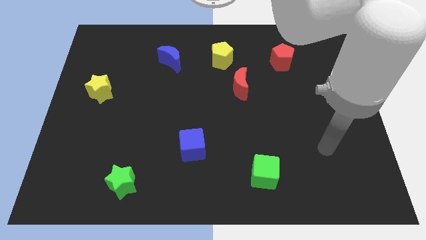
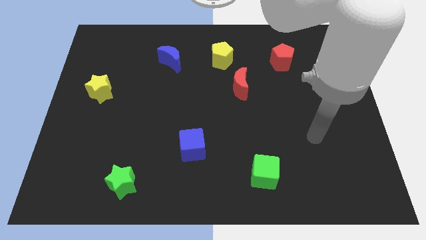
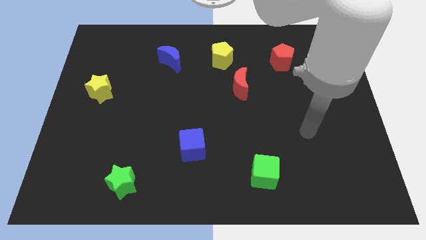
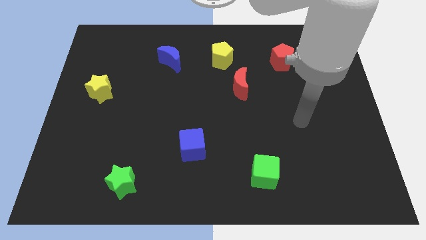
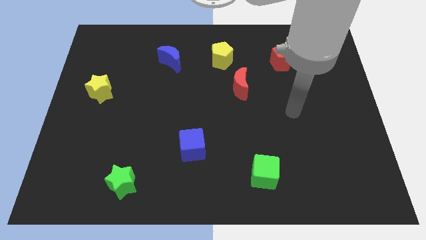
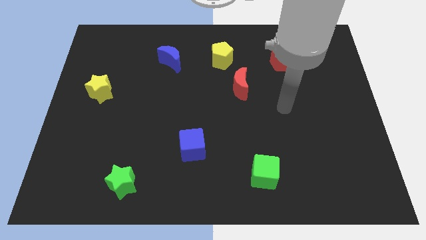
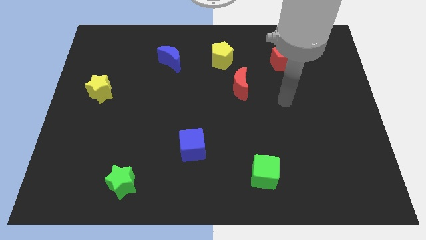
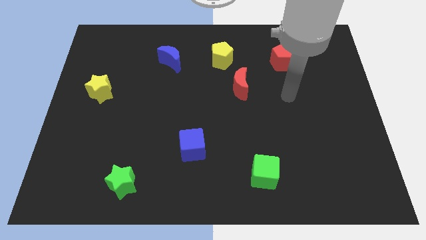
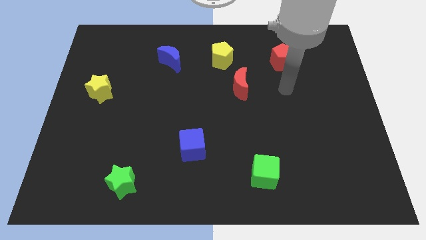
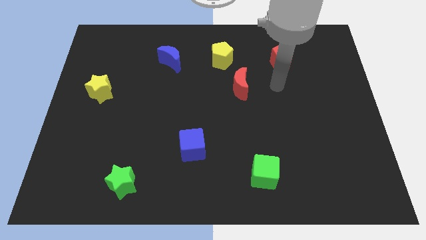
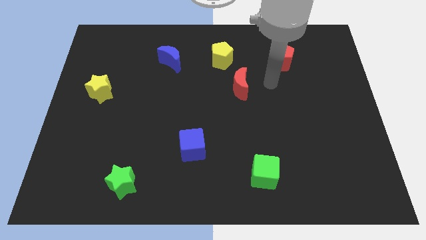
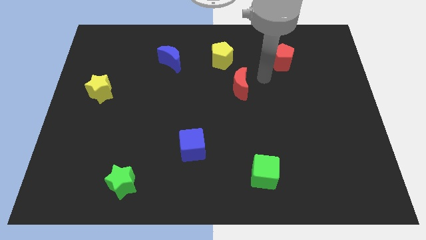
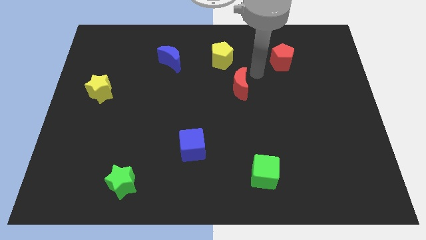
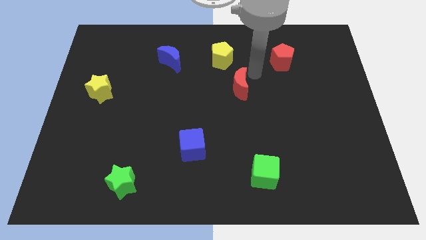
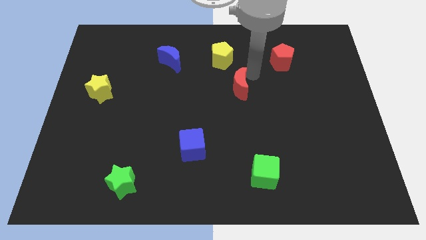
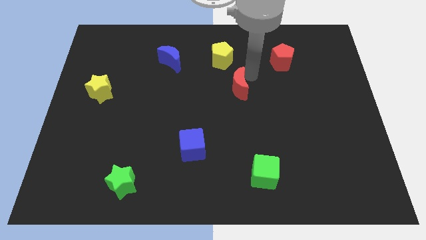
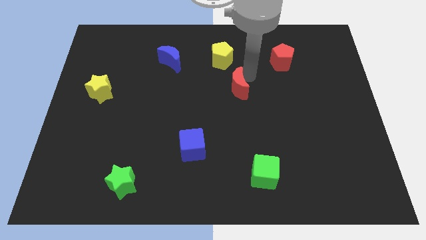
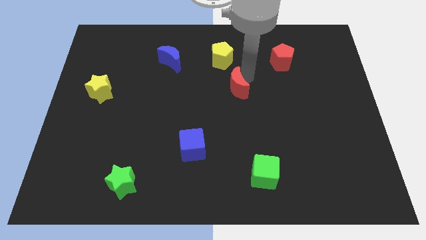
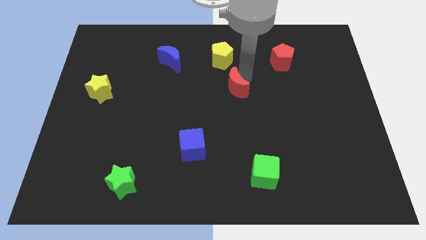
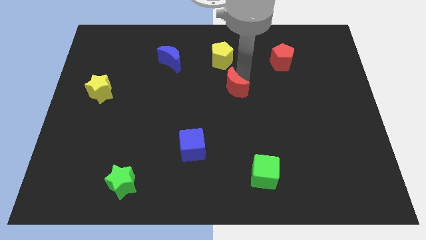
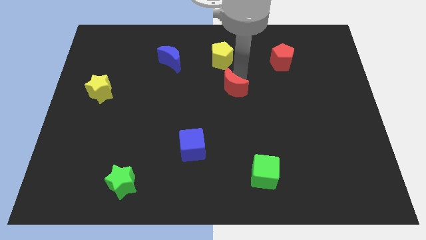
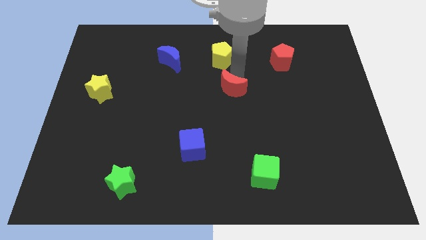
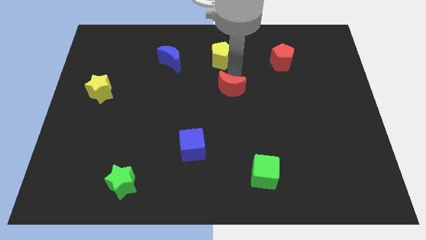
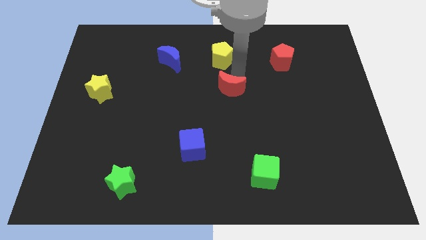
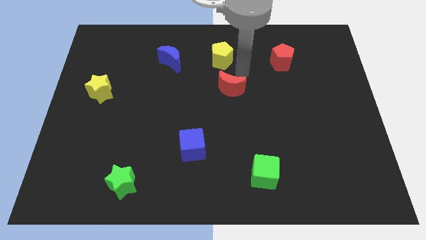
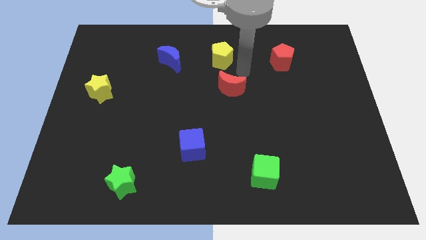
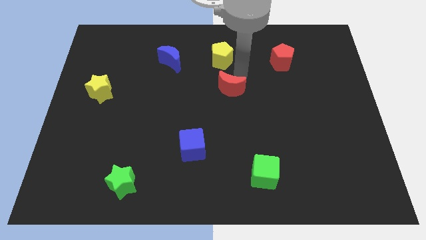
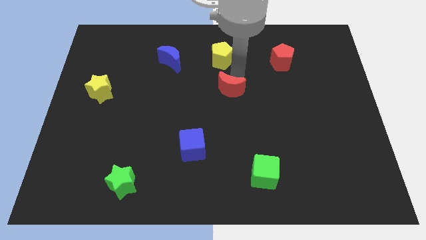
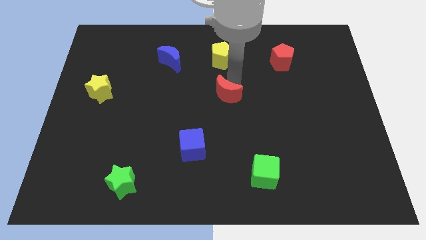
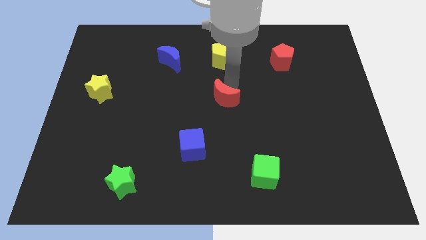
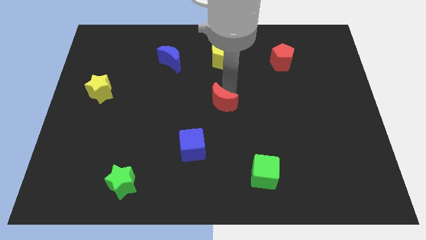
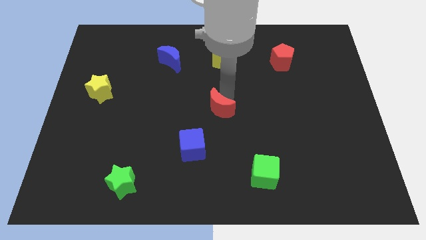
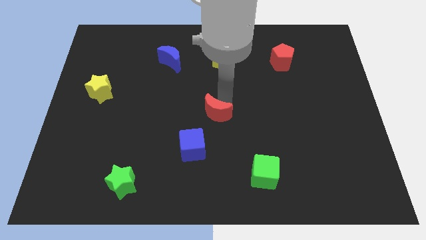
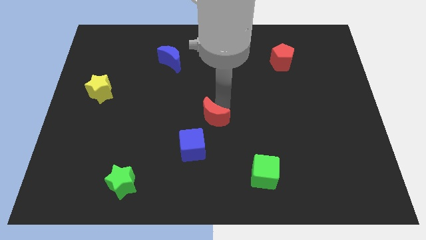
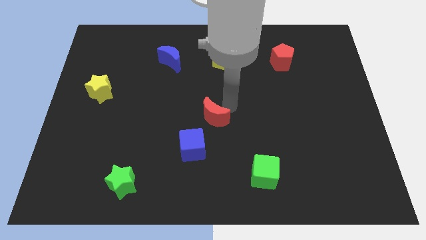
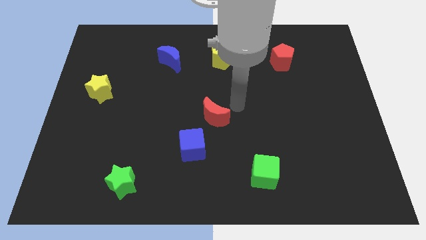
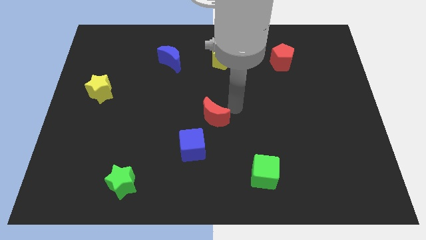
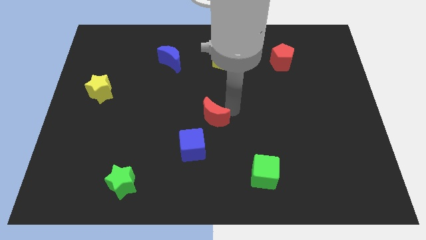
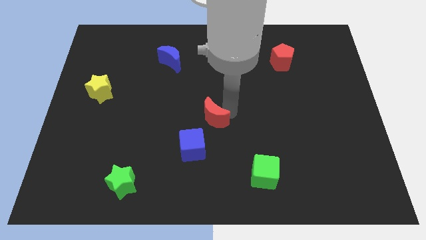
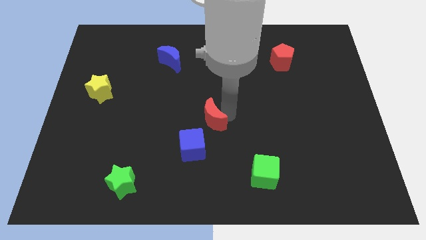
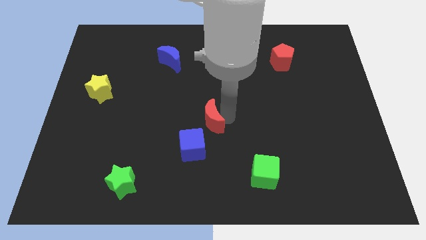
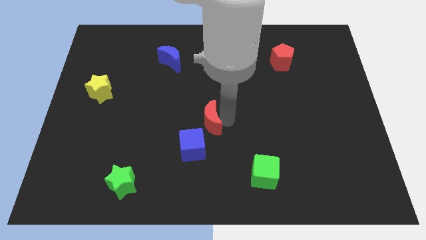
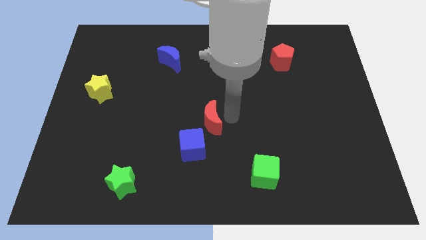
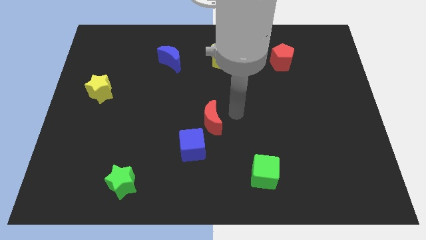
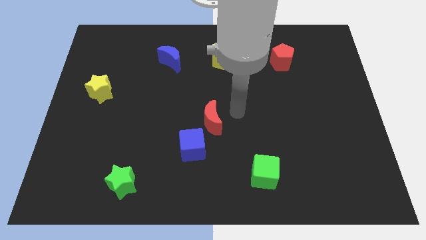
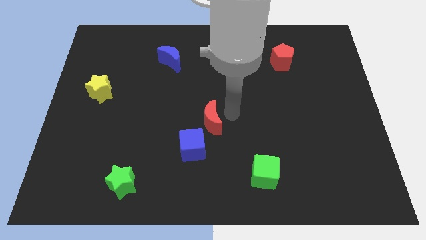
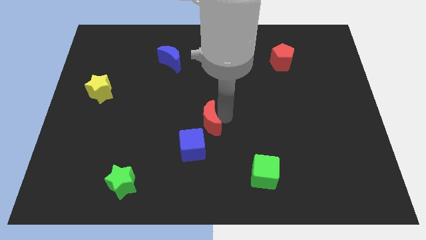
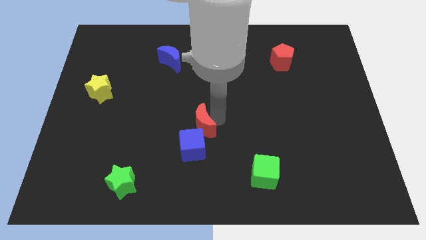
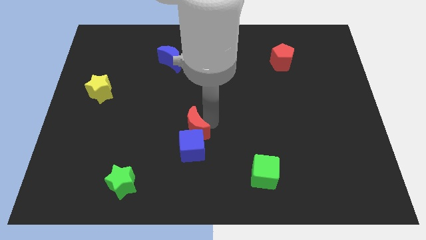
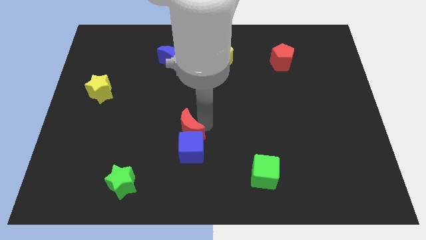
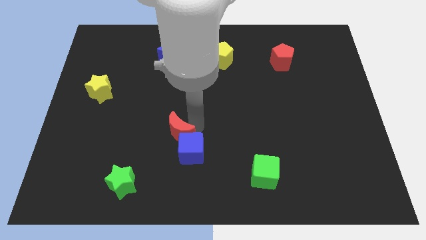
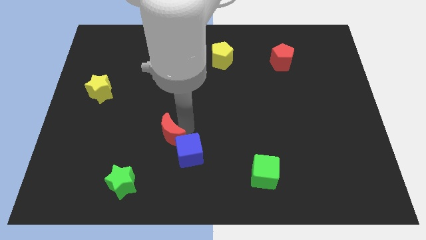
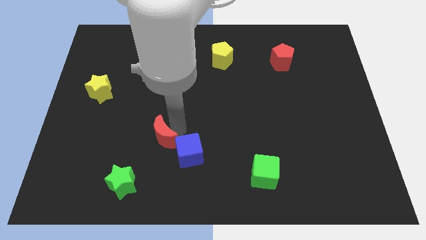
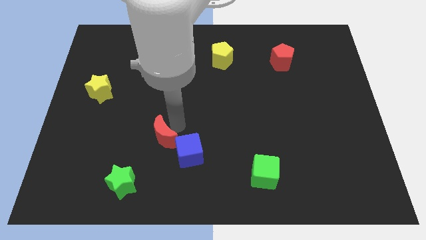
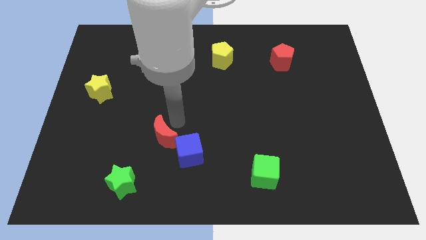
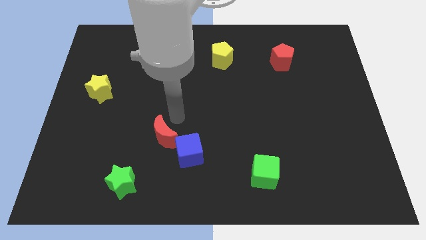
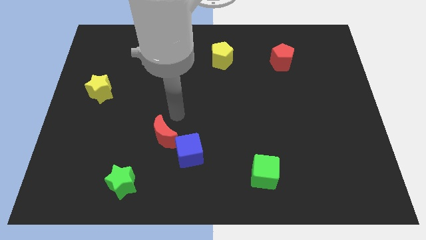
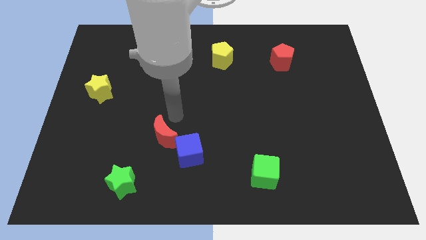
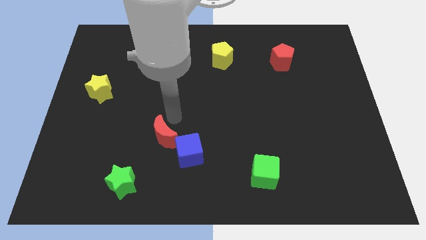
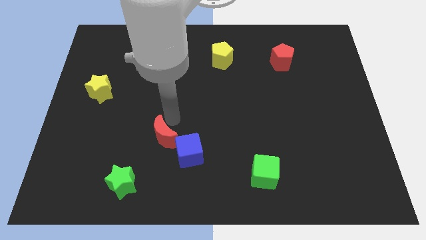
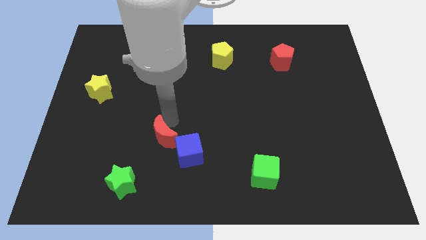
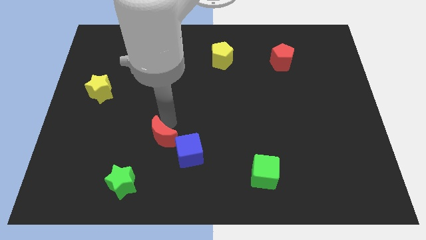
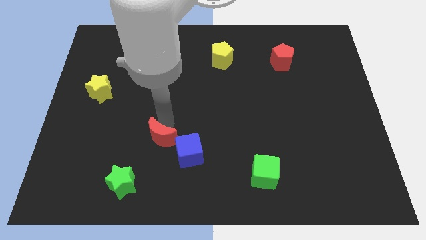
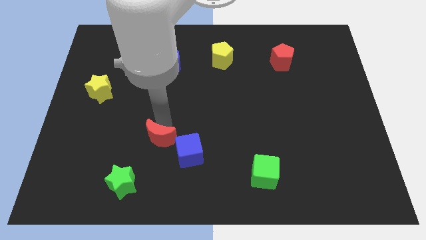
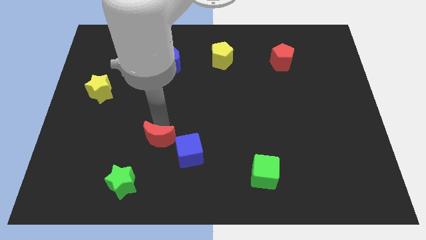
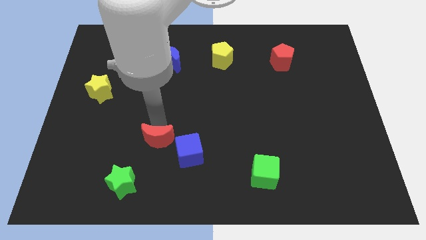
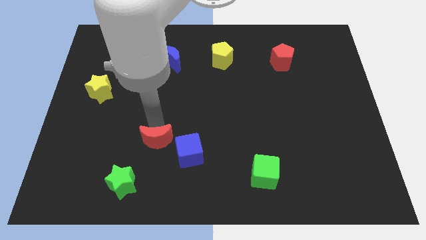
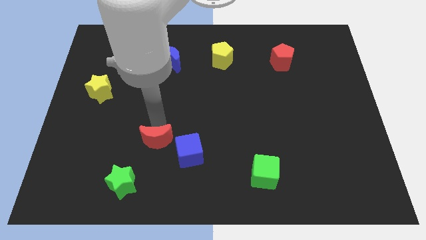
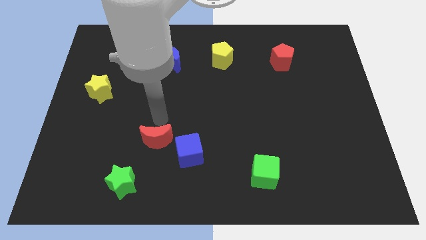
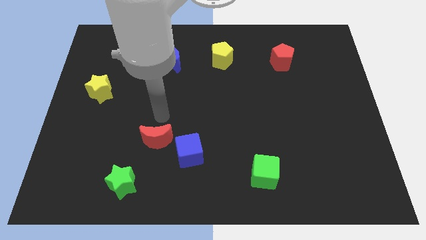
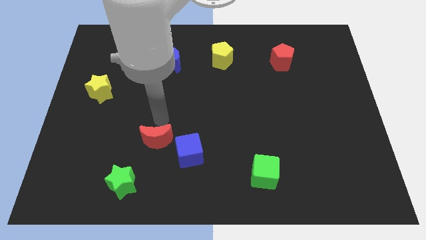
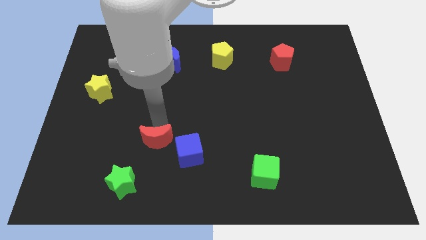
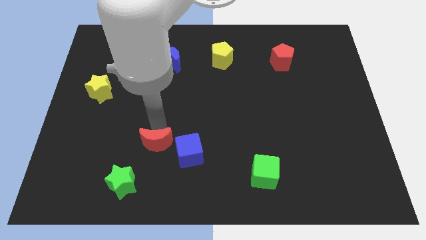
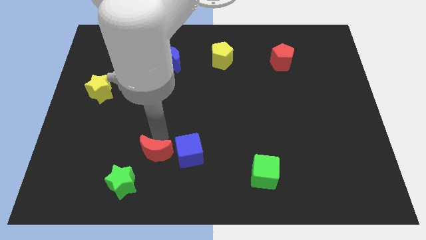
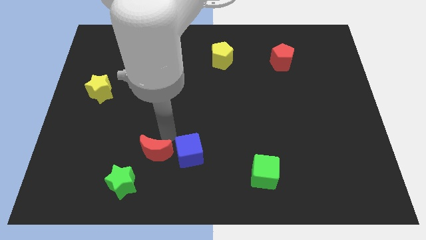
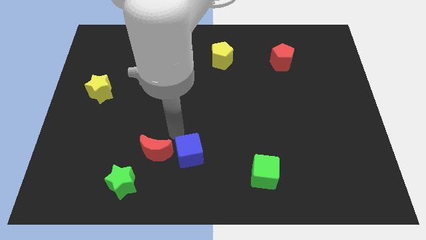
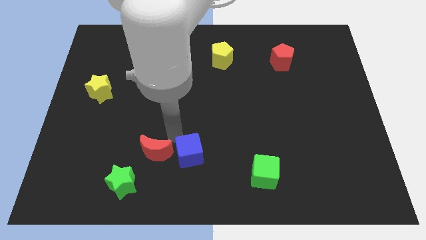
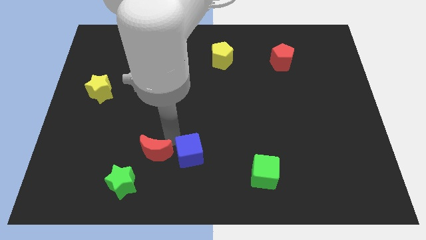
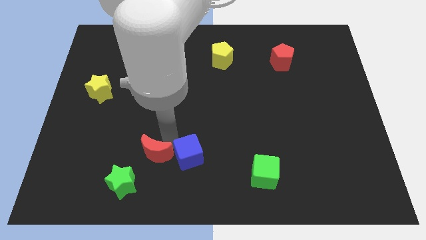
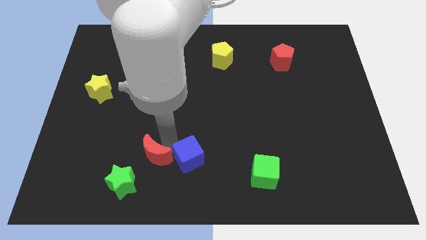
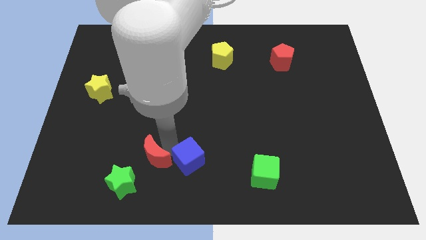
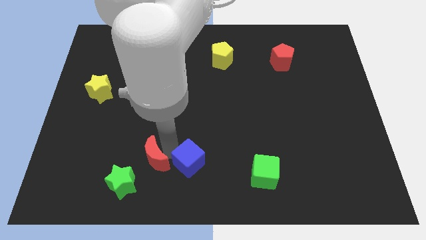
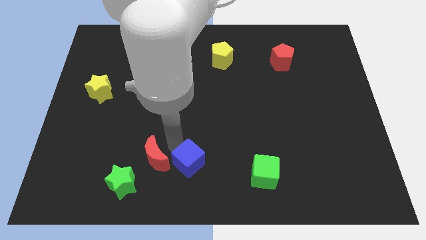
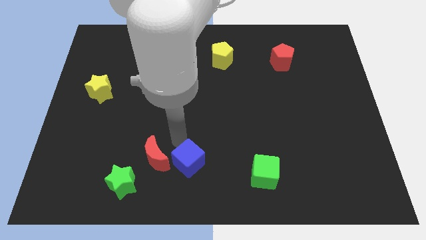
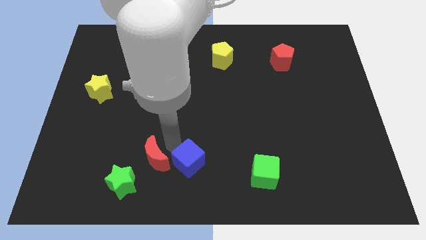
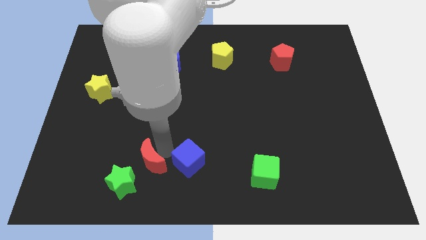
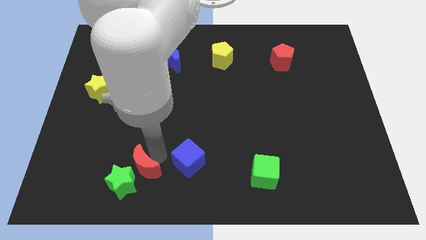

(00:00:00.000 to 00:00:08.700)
move the red moon close to the green star
